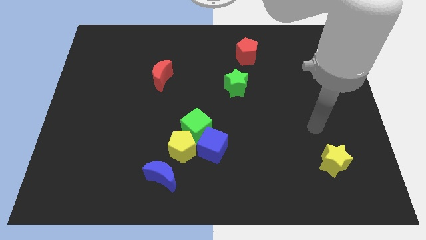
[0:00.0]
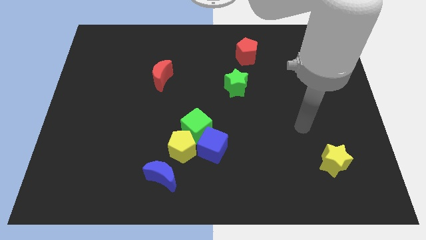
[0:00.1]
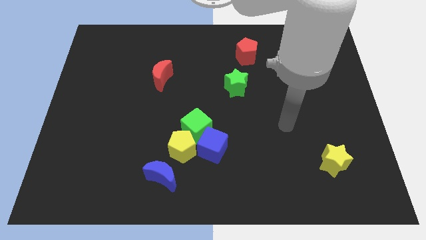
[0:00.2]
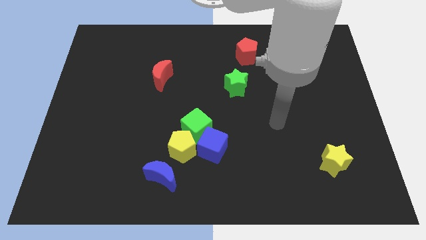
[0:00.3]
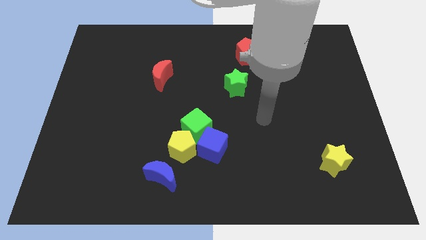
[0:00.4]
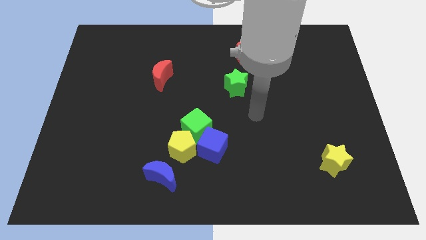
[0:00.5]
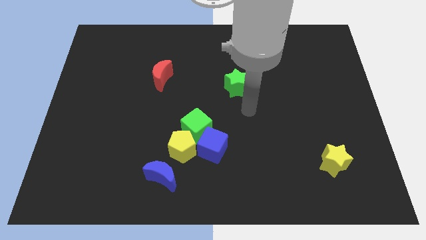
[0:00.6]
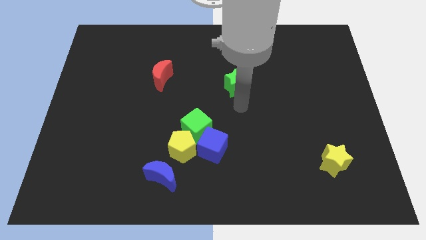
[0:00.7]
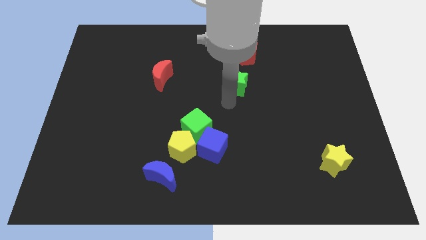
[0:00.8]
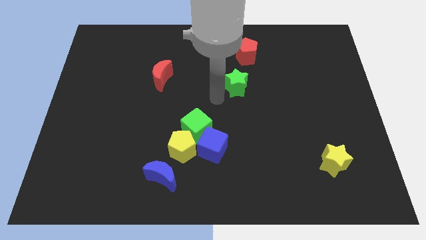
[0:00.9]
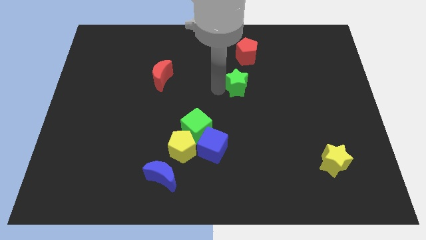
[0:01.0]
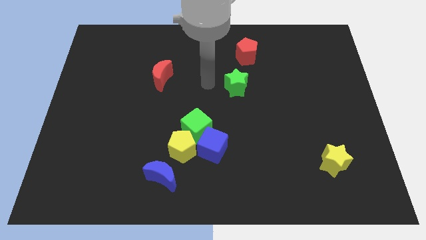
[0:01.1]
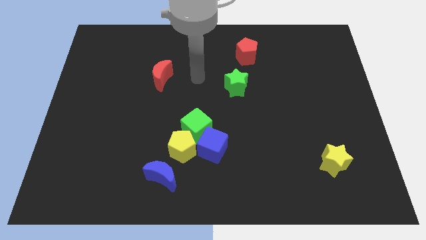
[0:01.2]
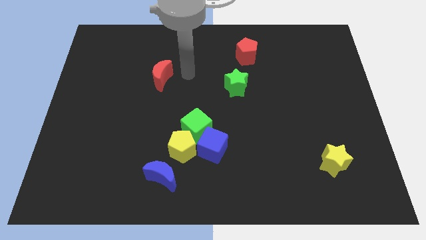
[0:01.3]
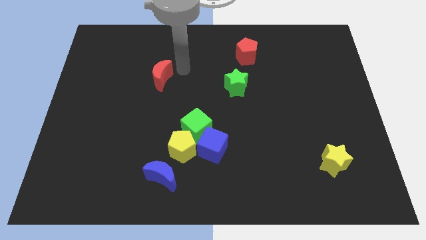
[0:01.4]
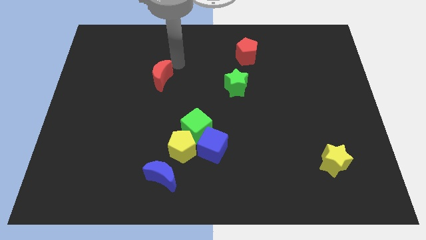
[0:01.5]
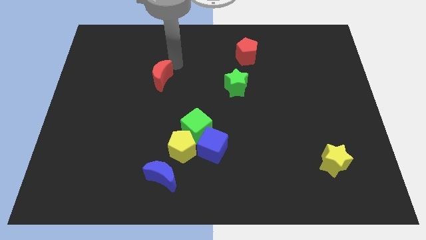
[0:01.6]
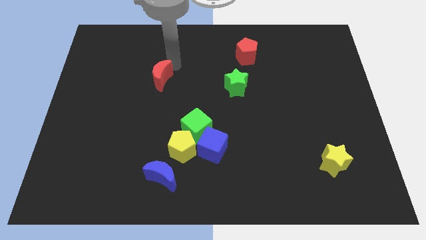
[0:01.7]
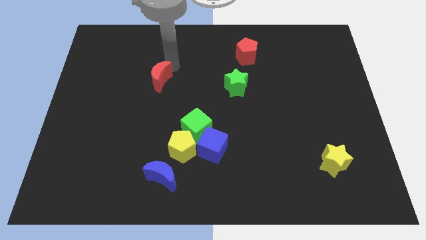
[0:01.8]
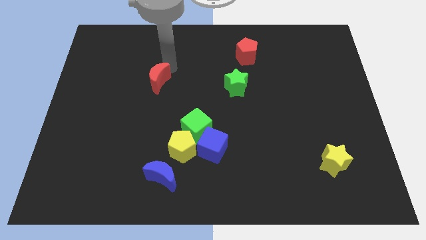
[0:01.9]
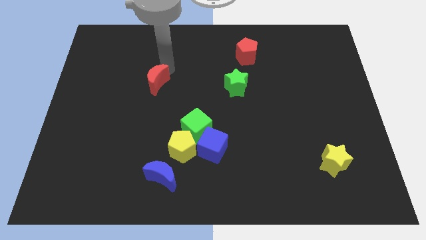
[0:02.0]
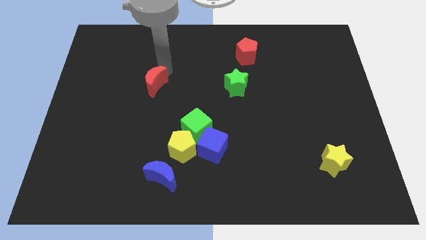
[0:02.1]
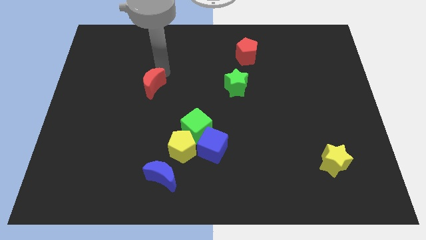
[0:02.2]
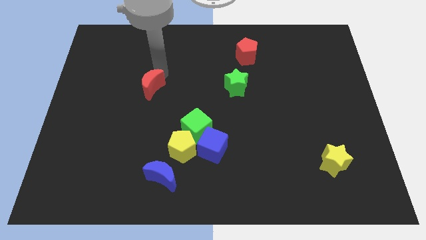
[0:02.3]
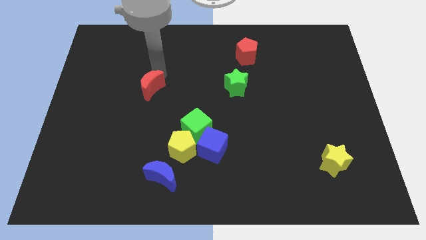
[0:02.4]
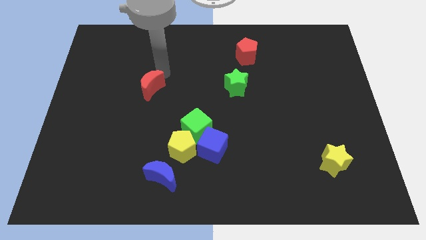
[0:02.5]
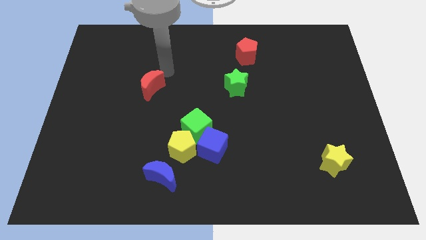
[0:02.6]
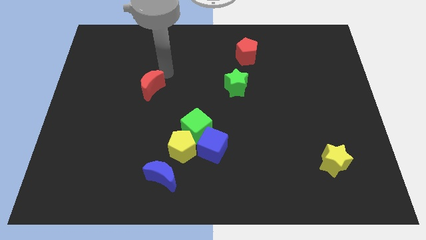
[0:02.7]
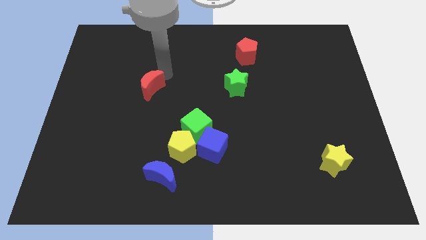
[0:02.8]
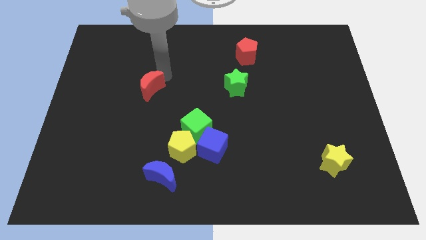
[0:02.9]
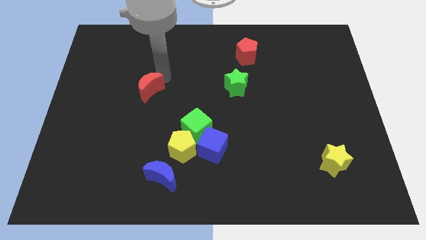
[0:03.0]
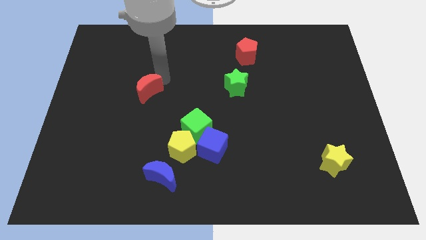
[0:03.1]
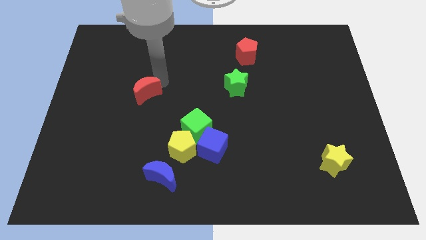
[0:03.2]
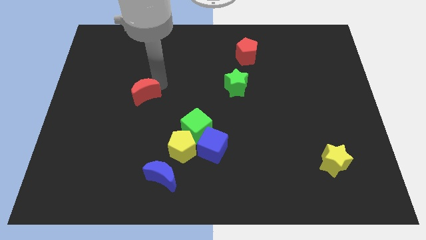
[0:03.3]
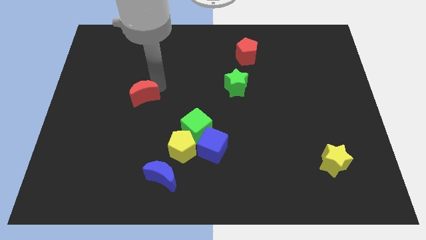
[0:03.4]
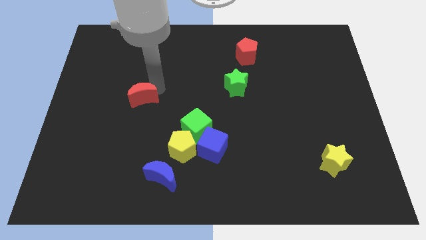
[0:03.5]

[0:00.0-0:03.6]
move the red moon somewhat downwards and to the left diagonally

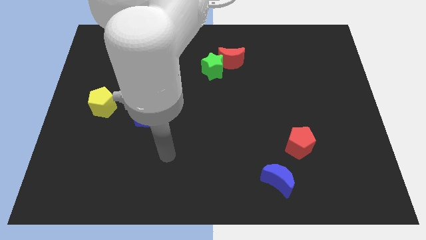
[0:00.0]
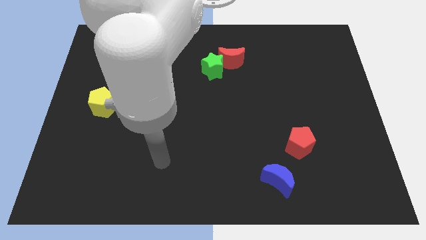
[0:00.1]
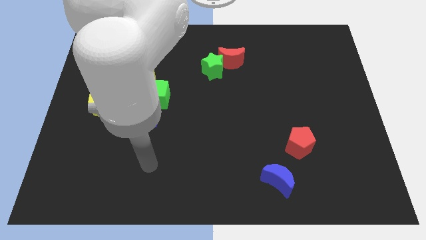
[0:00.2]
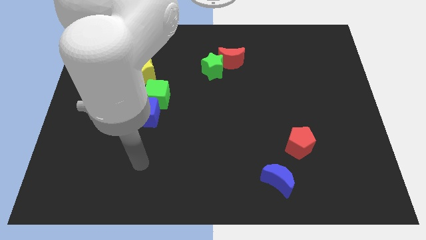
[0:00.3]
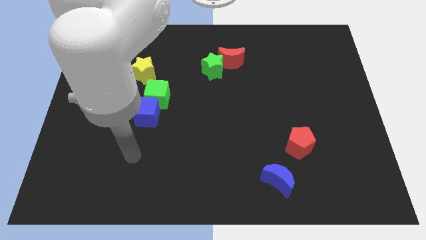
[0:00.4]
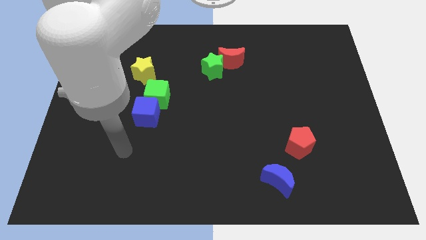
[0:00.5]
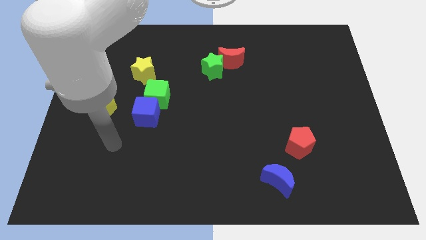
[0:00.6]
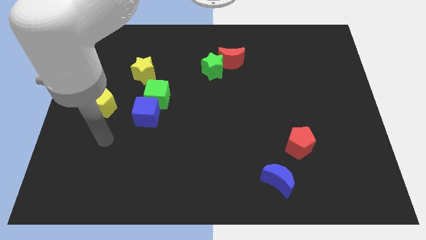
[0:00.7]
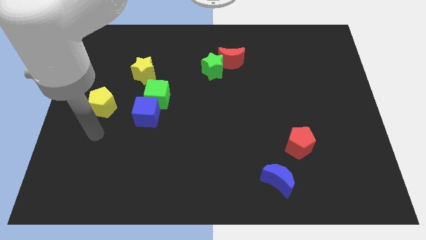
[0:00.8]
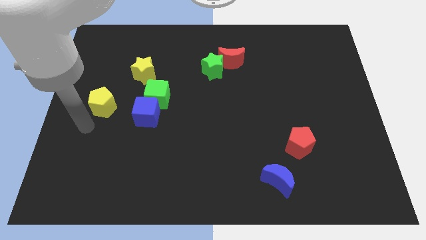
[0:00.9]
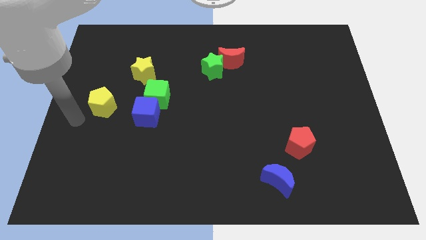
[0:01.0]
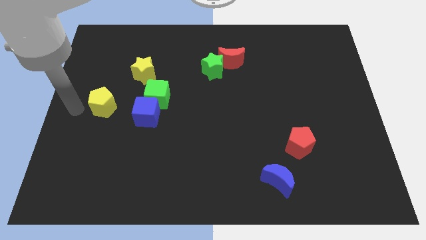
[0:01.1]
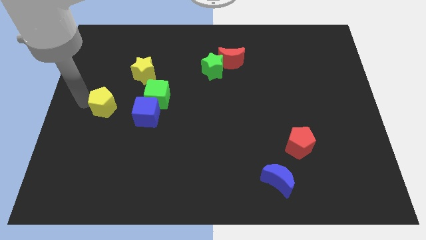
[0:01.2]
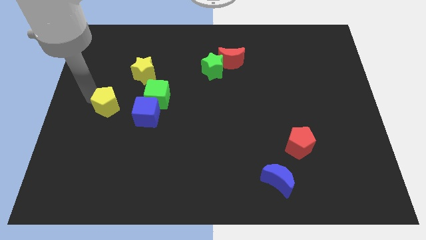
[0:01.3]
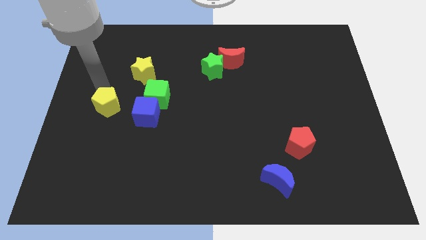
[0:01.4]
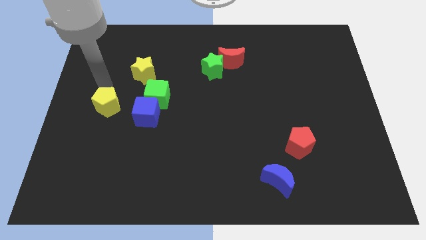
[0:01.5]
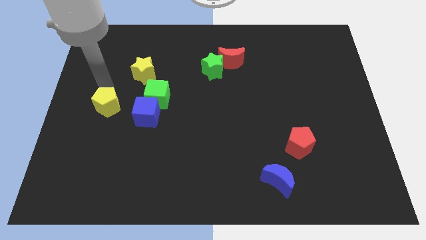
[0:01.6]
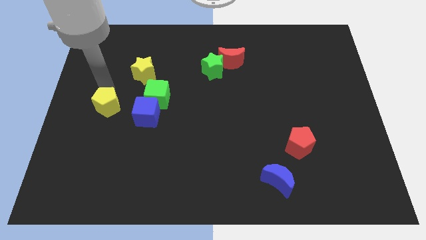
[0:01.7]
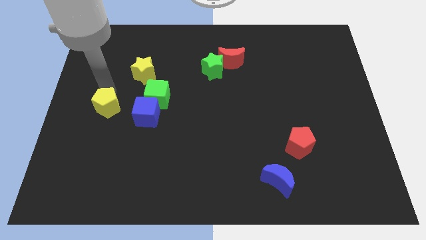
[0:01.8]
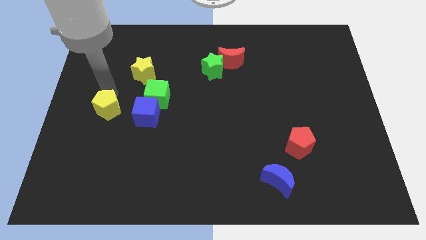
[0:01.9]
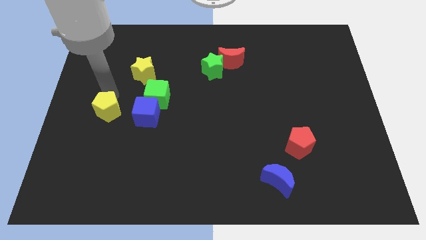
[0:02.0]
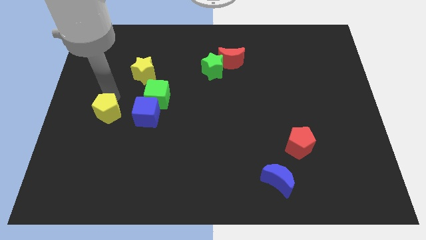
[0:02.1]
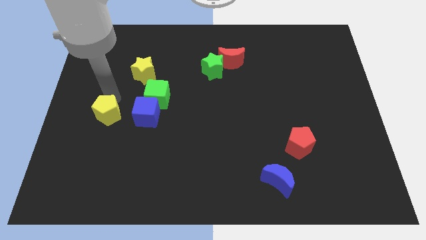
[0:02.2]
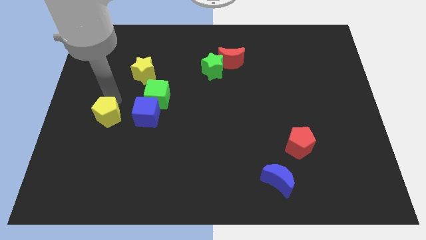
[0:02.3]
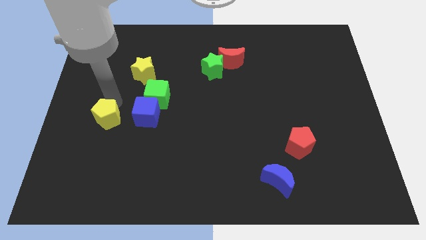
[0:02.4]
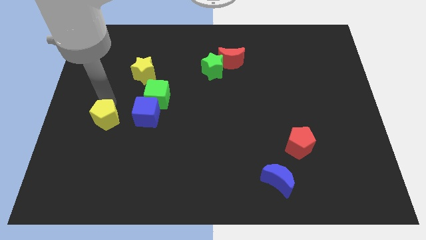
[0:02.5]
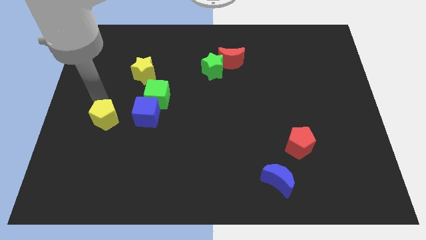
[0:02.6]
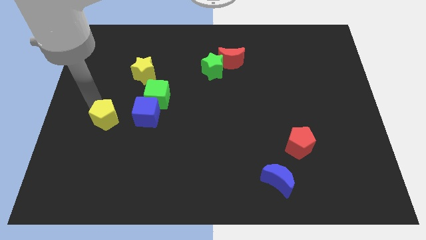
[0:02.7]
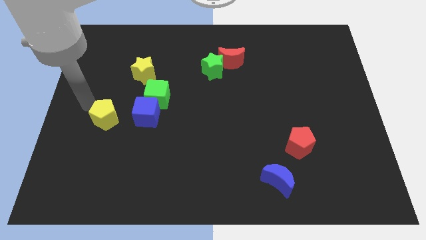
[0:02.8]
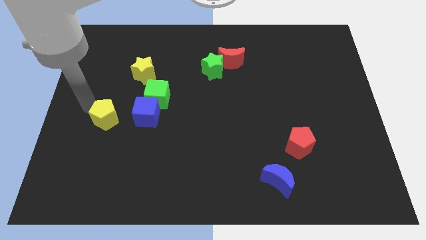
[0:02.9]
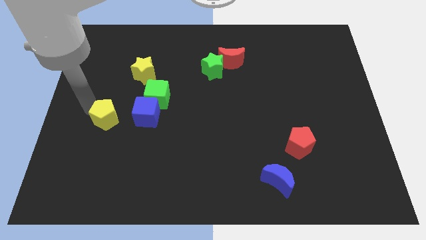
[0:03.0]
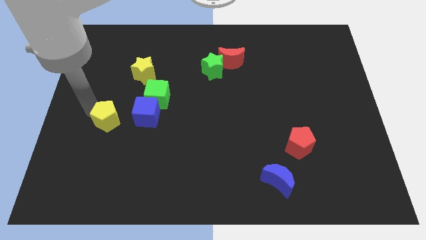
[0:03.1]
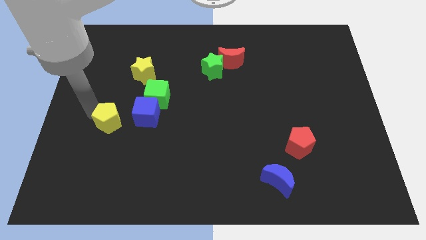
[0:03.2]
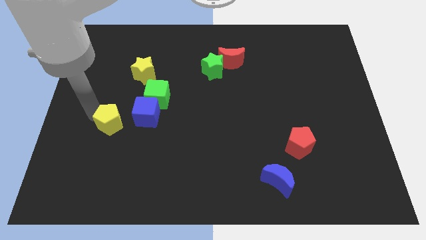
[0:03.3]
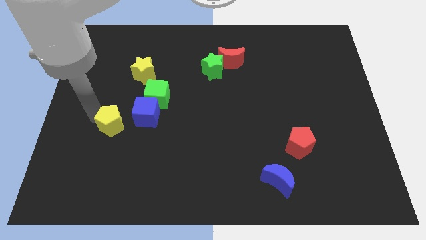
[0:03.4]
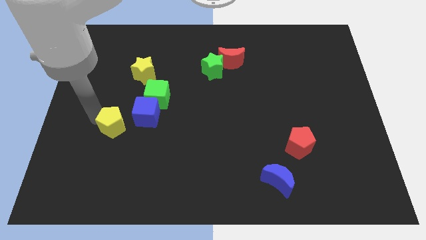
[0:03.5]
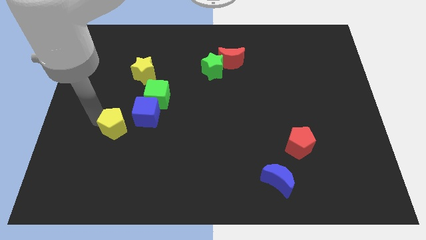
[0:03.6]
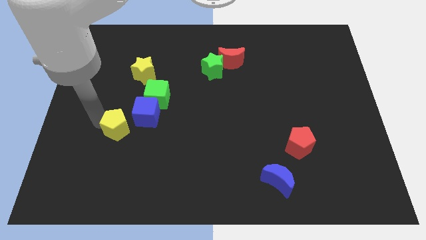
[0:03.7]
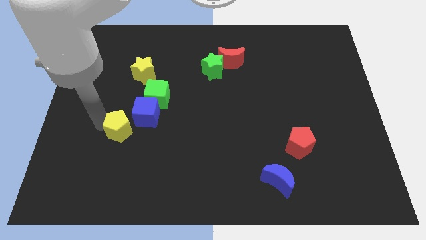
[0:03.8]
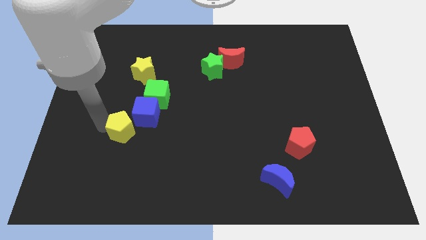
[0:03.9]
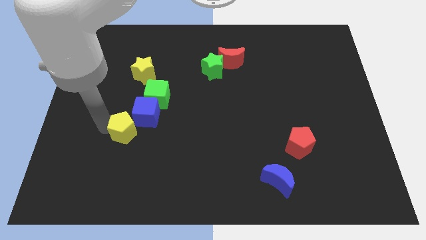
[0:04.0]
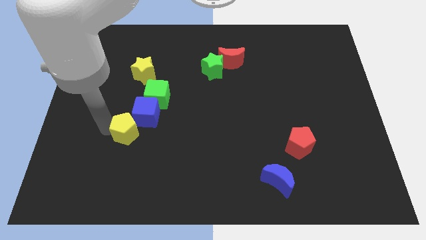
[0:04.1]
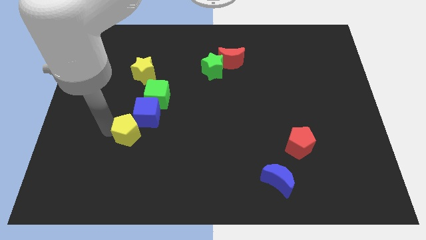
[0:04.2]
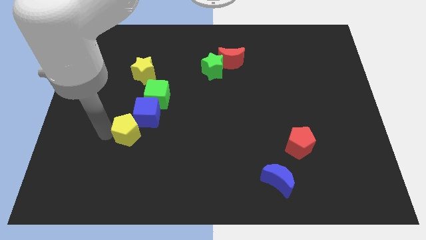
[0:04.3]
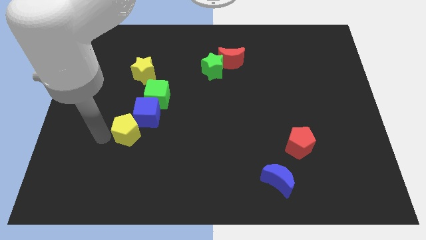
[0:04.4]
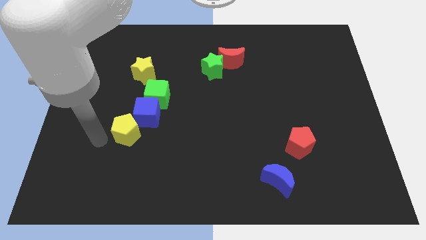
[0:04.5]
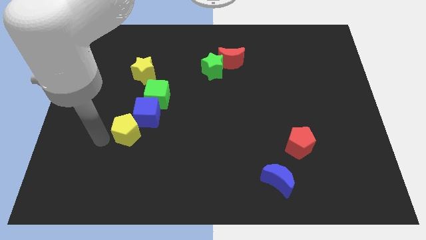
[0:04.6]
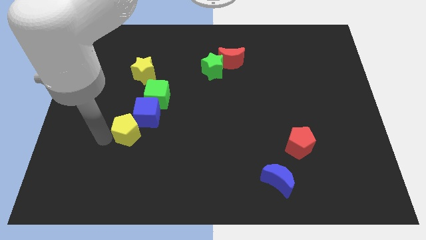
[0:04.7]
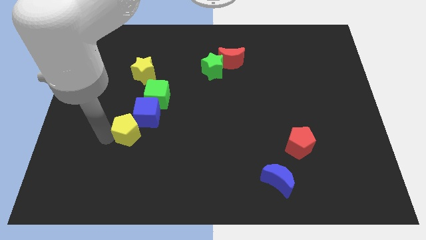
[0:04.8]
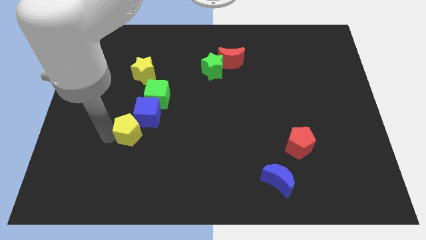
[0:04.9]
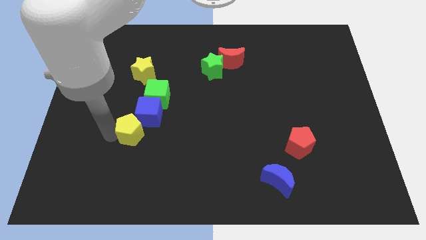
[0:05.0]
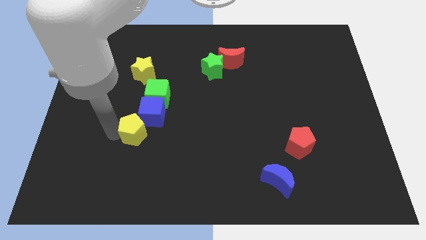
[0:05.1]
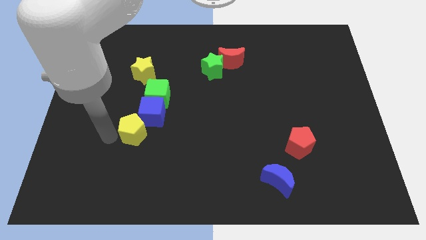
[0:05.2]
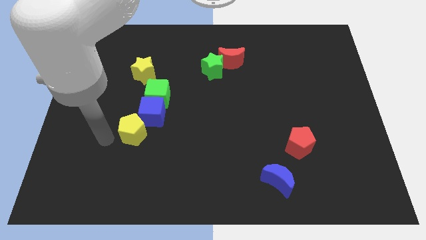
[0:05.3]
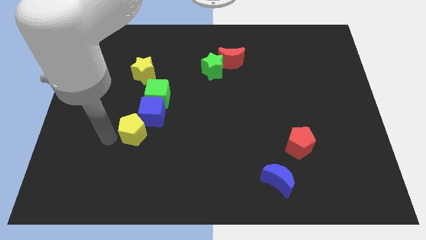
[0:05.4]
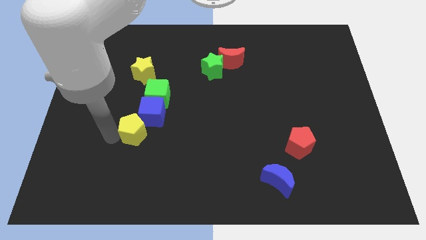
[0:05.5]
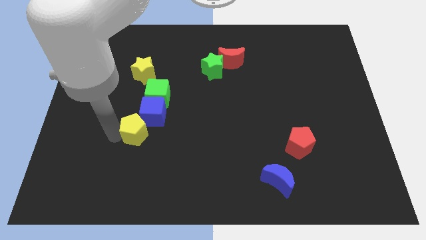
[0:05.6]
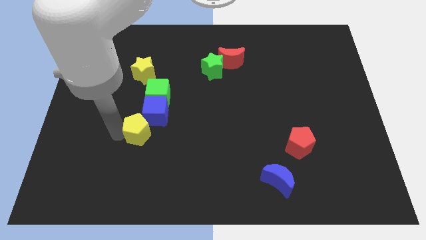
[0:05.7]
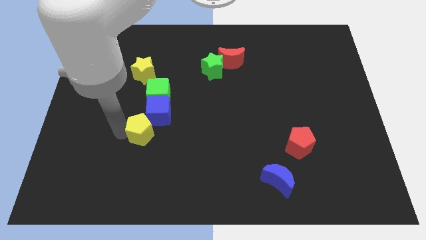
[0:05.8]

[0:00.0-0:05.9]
slightly push the yellow pentagon to the right
